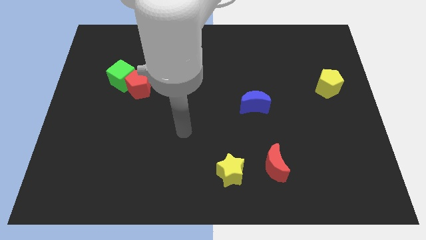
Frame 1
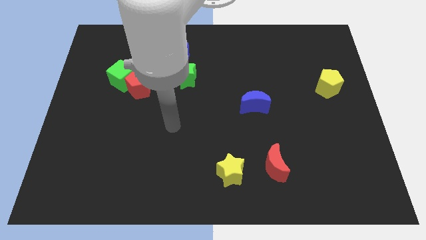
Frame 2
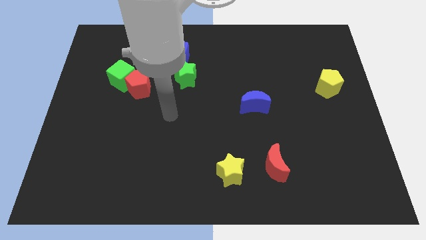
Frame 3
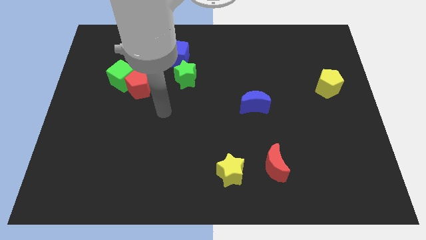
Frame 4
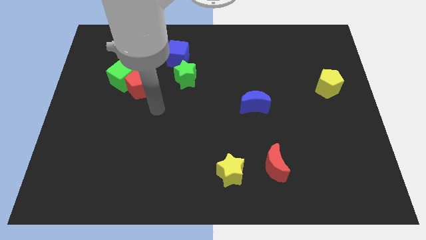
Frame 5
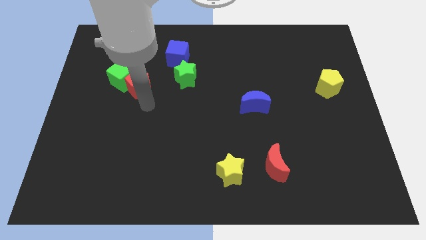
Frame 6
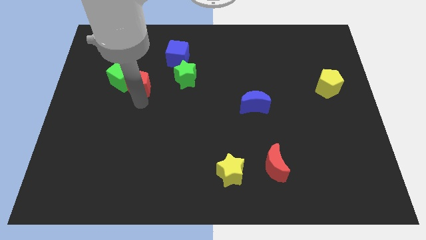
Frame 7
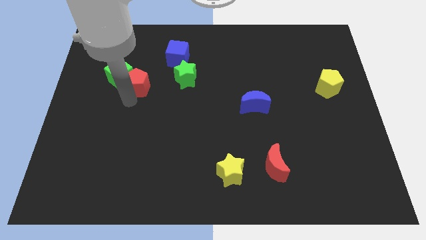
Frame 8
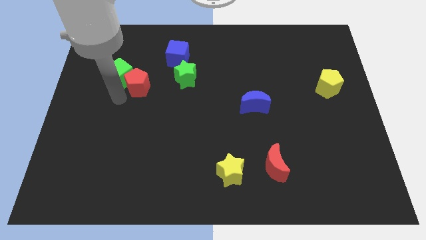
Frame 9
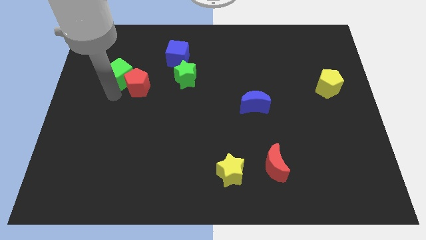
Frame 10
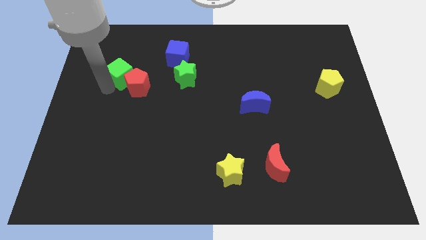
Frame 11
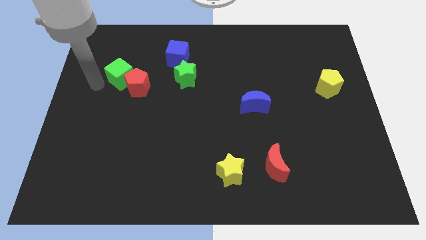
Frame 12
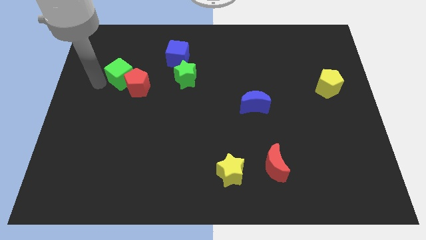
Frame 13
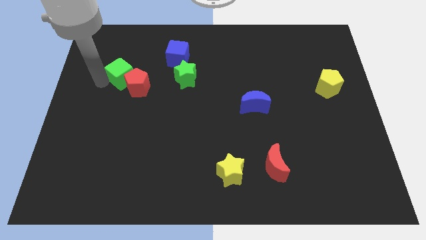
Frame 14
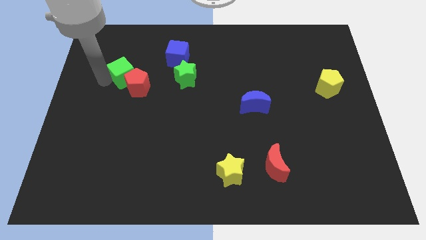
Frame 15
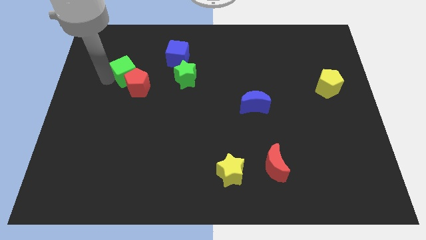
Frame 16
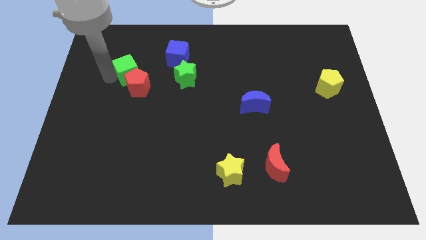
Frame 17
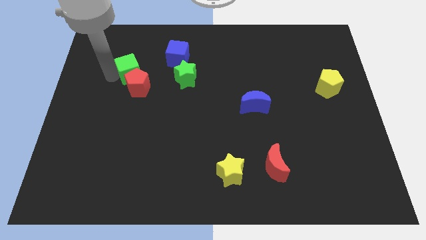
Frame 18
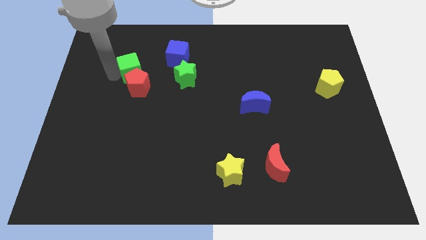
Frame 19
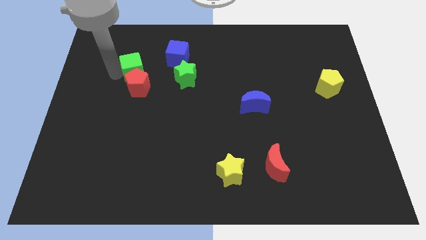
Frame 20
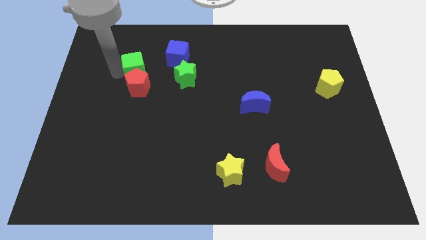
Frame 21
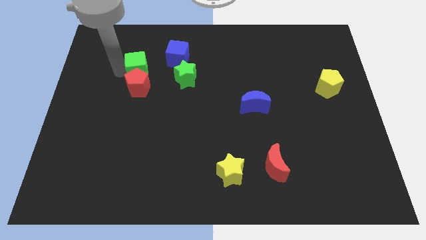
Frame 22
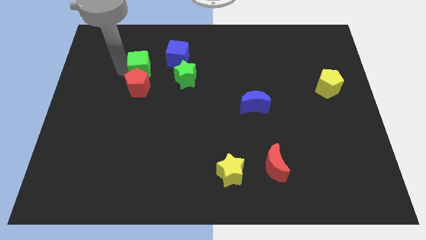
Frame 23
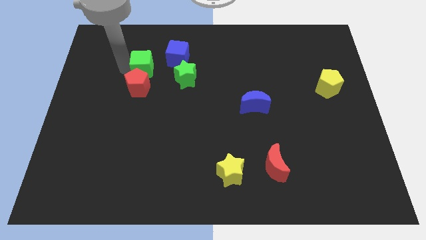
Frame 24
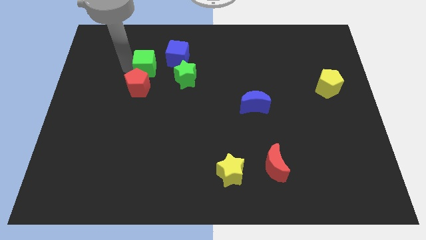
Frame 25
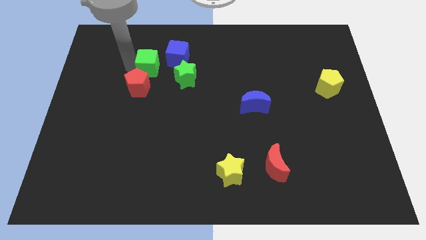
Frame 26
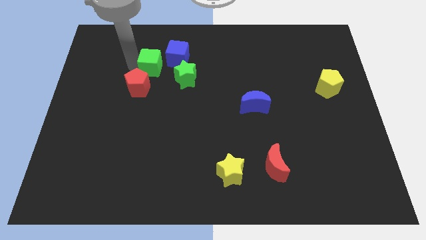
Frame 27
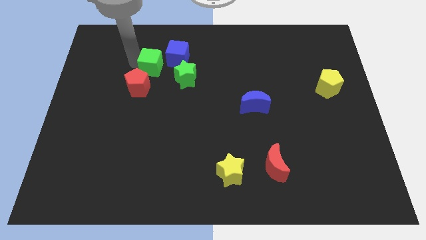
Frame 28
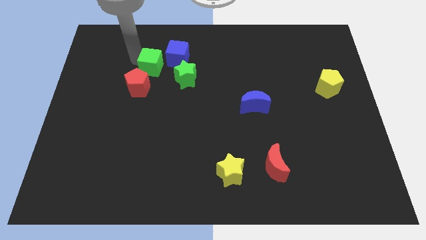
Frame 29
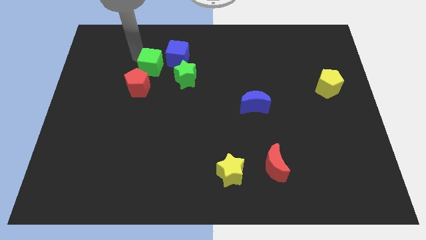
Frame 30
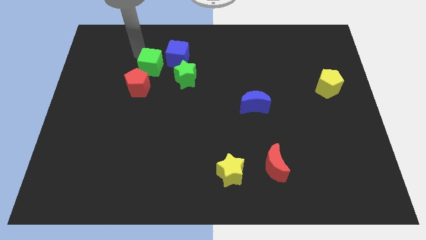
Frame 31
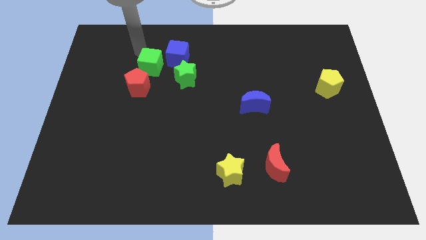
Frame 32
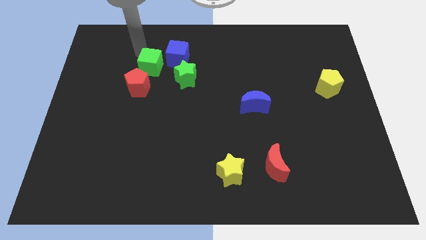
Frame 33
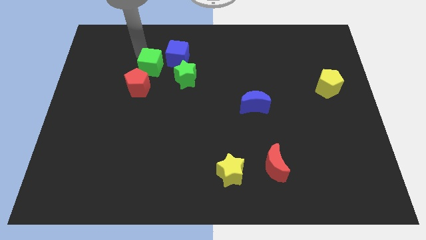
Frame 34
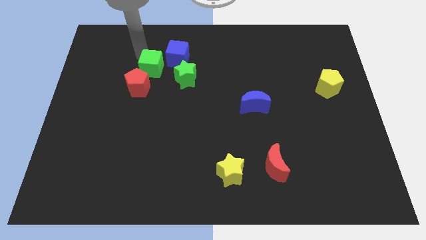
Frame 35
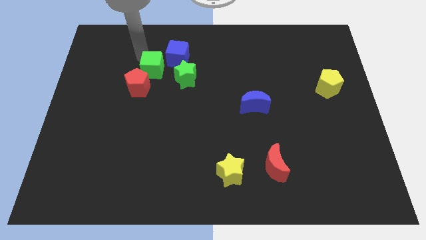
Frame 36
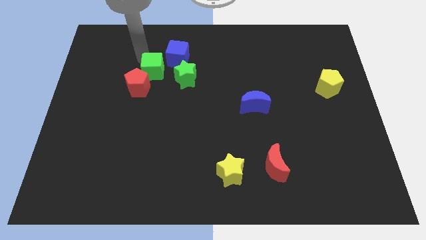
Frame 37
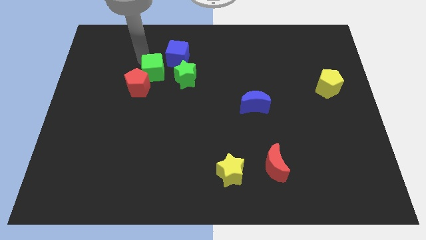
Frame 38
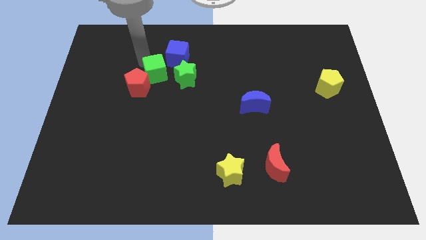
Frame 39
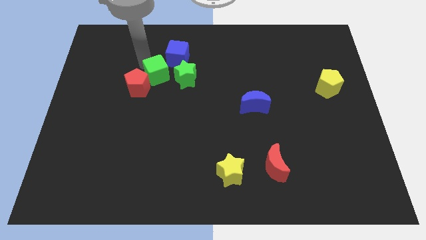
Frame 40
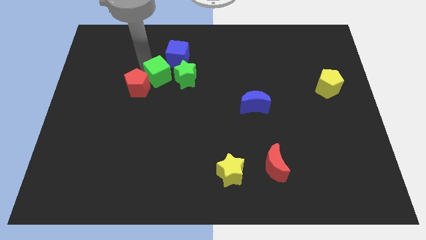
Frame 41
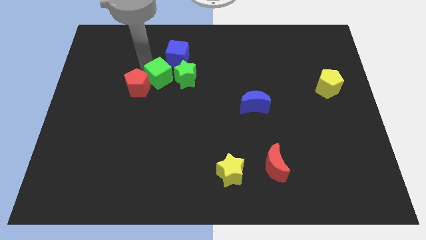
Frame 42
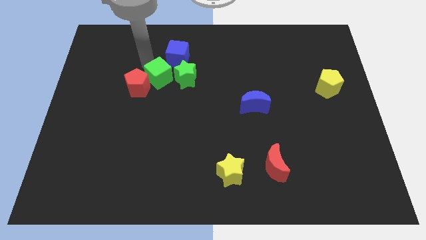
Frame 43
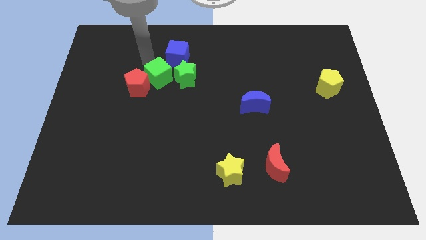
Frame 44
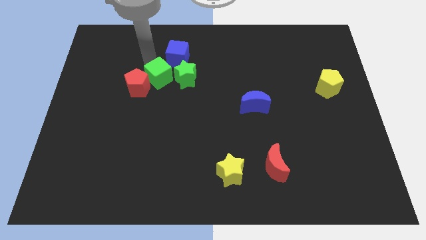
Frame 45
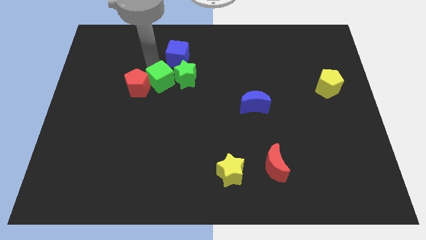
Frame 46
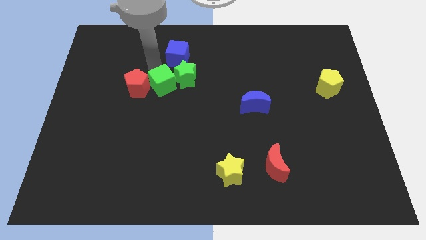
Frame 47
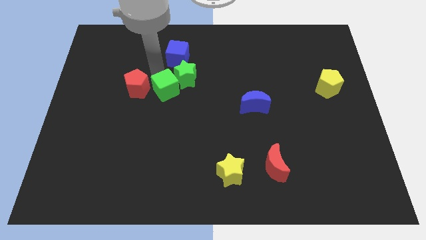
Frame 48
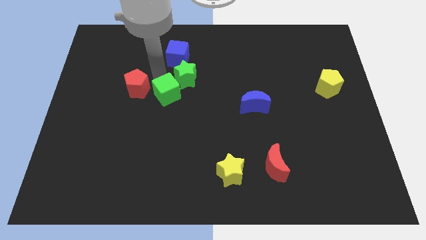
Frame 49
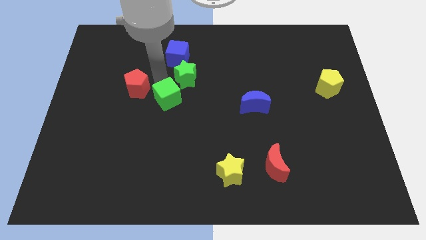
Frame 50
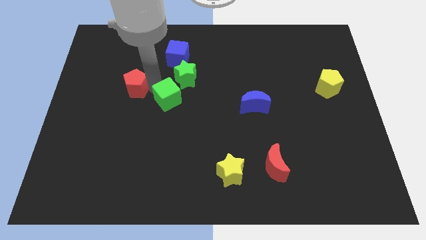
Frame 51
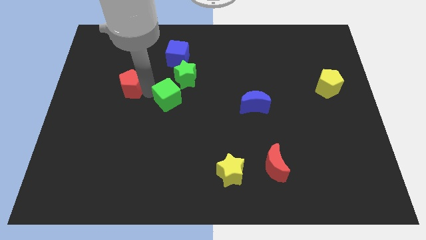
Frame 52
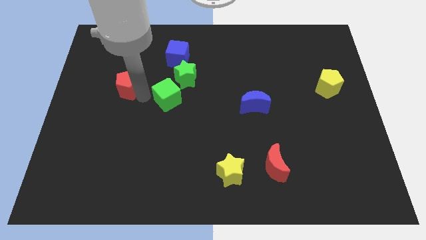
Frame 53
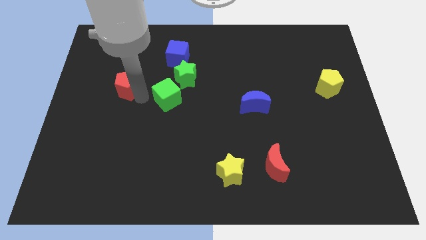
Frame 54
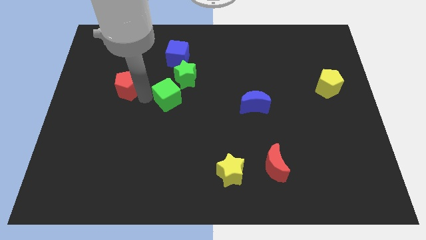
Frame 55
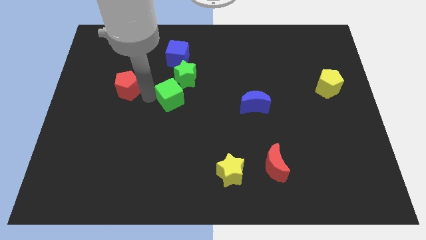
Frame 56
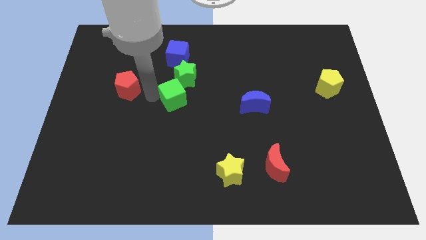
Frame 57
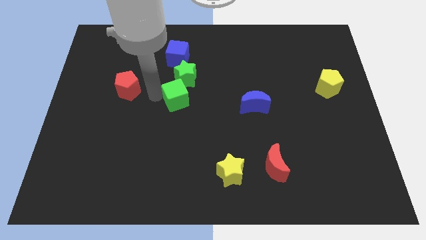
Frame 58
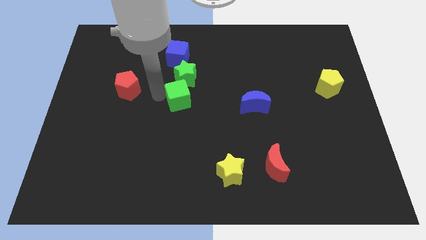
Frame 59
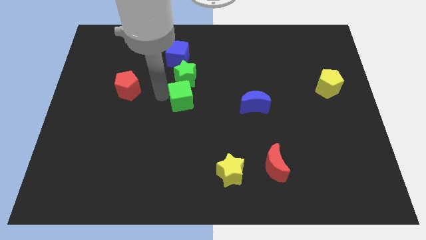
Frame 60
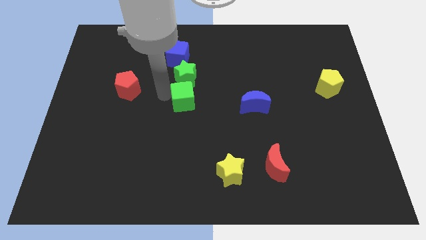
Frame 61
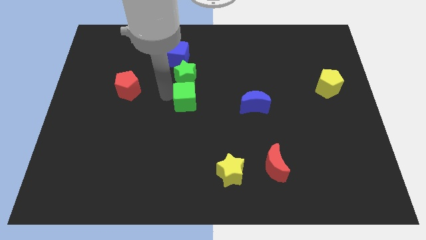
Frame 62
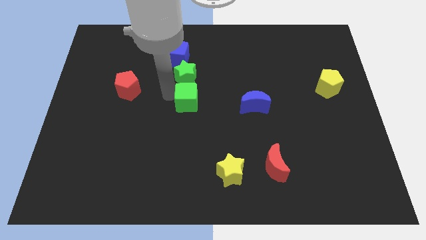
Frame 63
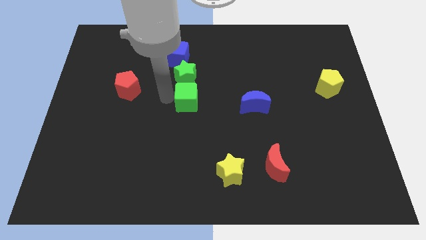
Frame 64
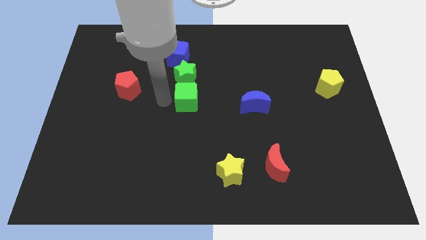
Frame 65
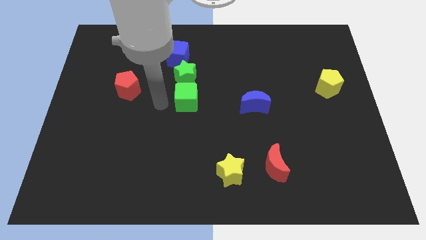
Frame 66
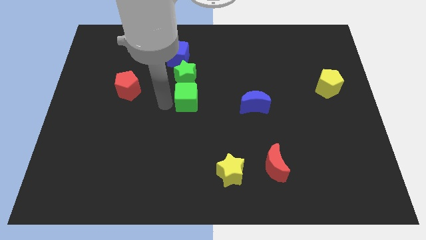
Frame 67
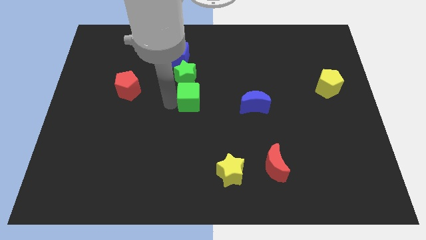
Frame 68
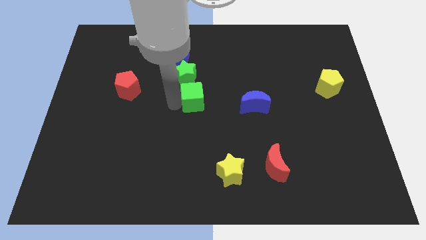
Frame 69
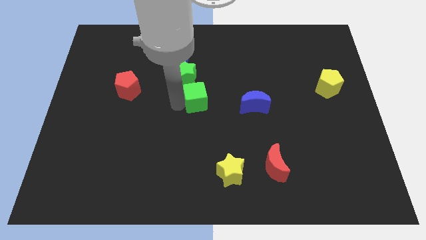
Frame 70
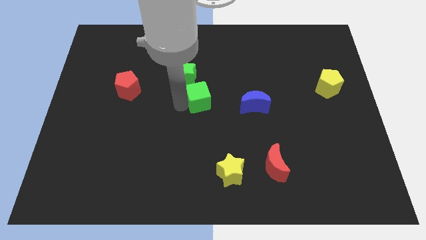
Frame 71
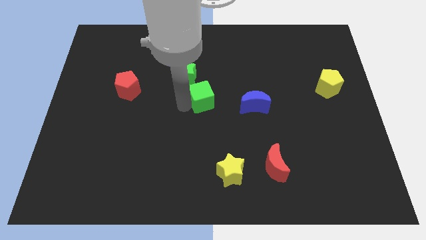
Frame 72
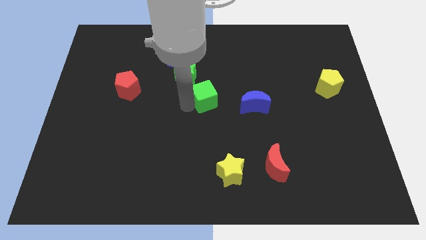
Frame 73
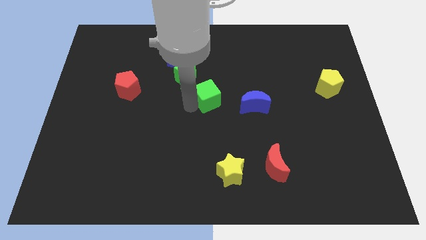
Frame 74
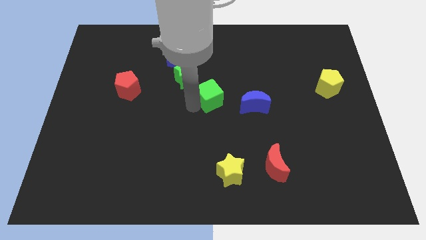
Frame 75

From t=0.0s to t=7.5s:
move the green cube to the right

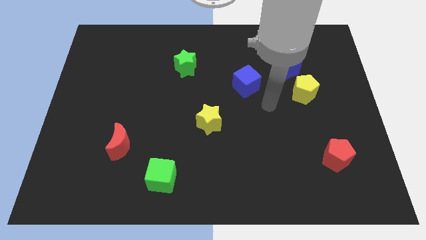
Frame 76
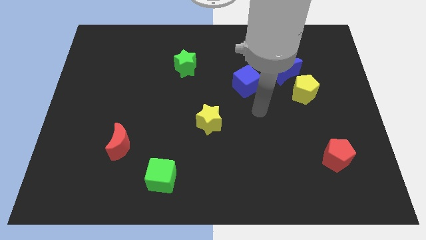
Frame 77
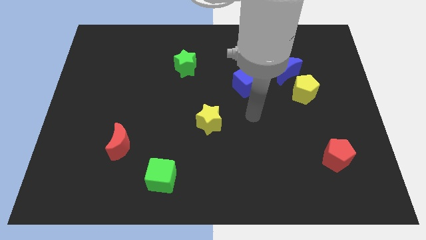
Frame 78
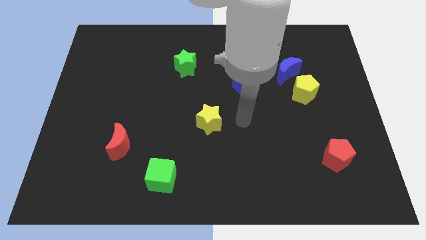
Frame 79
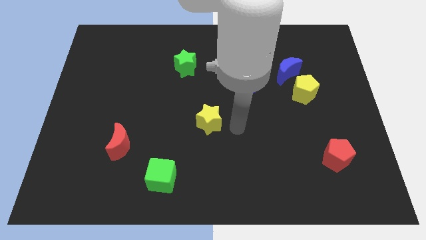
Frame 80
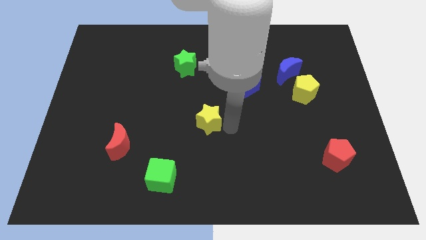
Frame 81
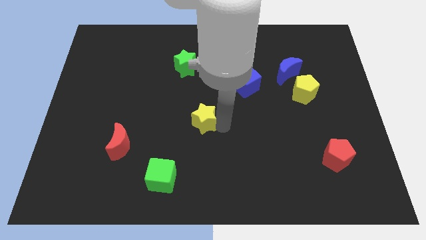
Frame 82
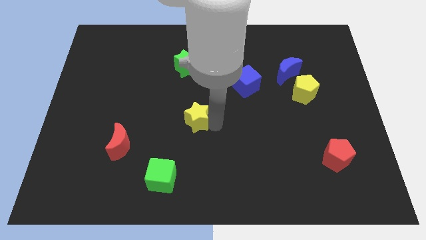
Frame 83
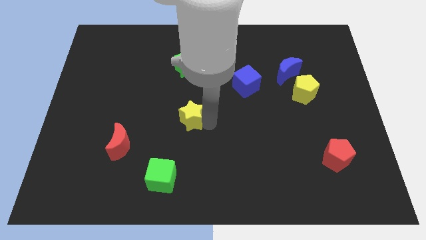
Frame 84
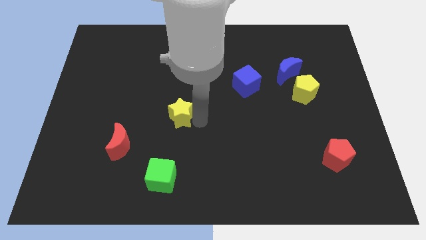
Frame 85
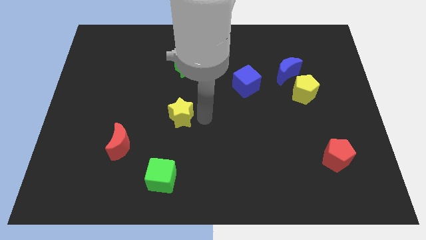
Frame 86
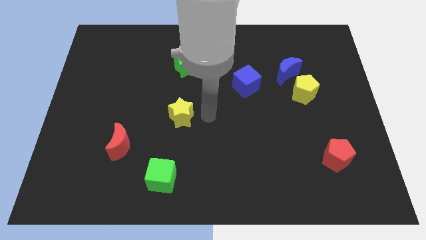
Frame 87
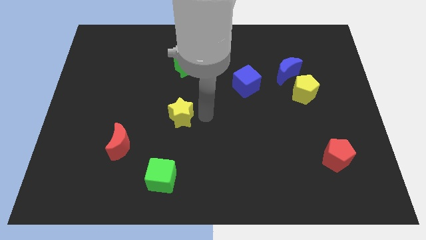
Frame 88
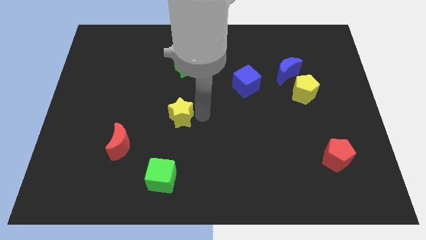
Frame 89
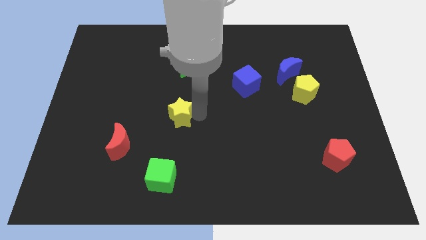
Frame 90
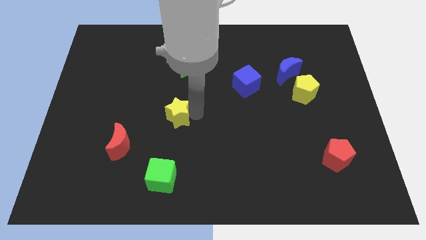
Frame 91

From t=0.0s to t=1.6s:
move the yellow star left somewhat
